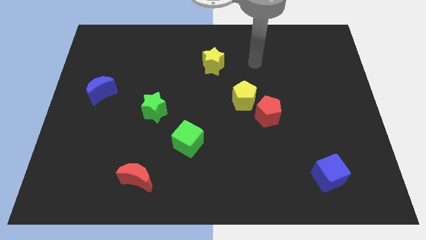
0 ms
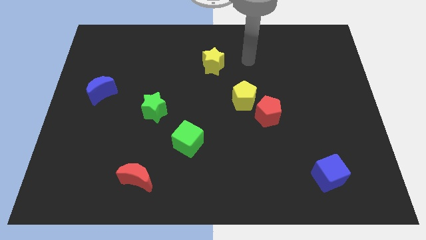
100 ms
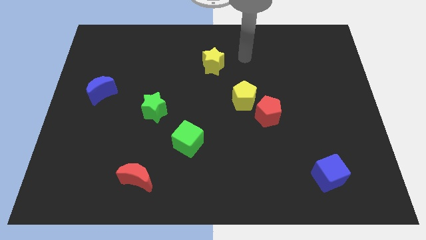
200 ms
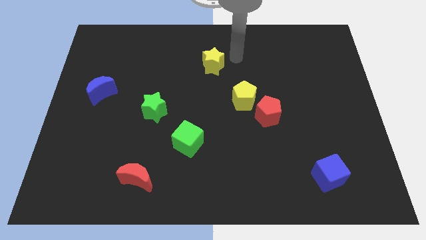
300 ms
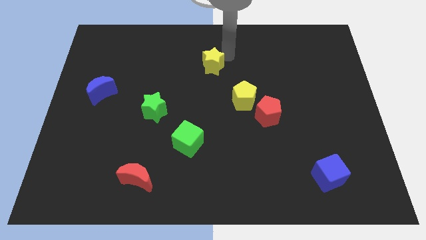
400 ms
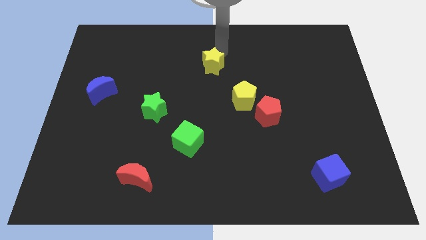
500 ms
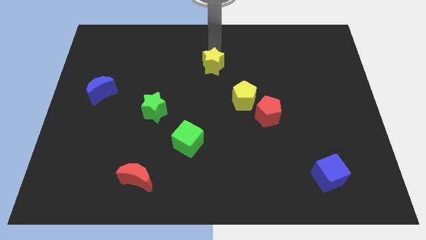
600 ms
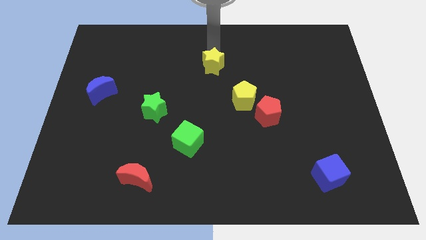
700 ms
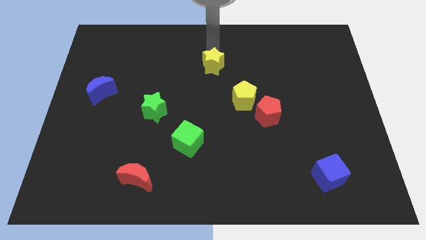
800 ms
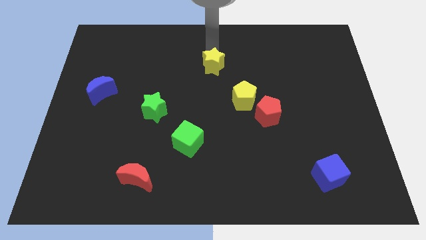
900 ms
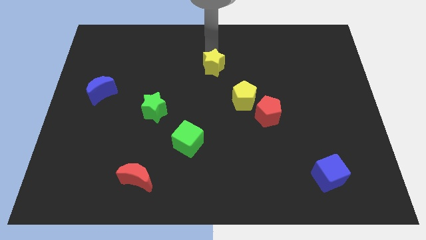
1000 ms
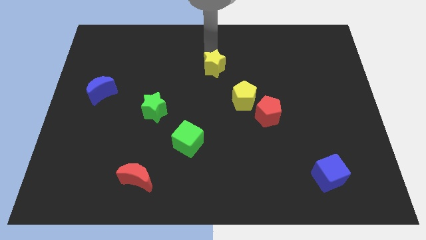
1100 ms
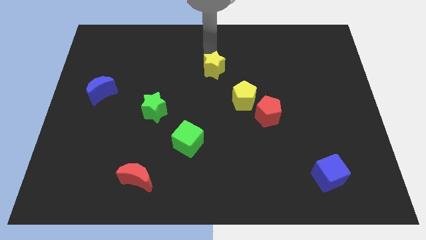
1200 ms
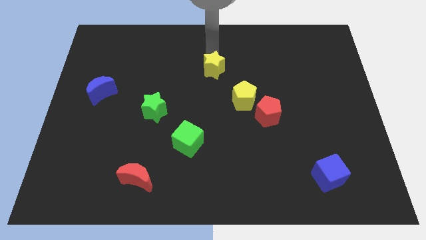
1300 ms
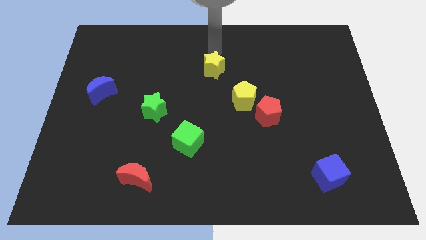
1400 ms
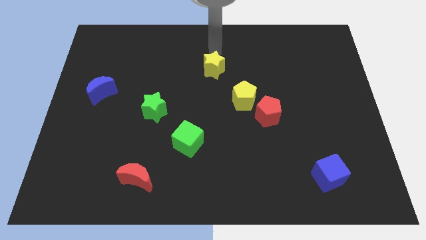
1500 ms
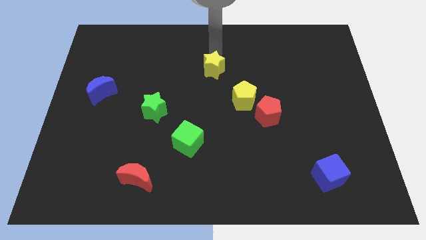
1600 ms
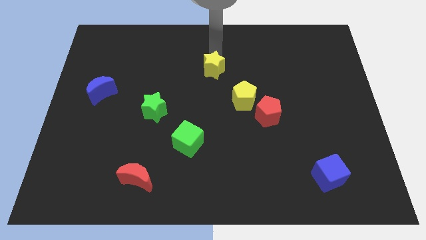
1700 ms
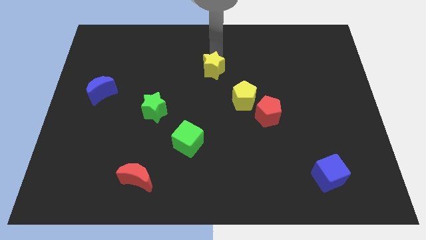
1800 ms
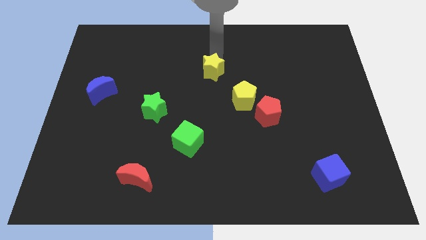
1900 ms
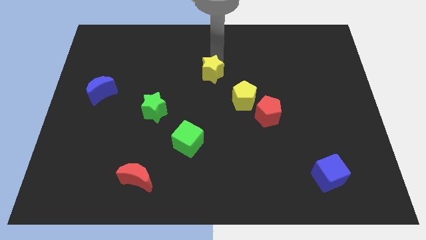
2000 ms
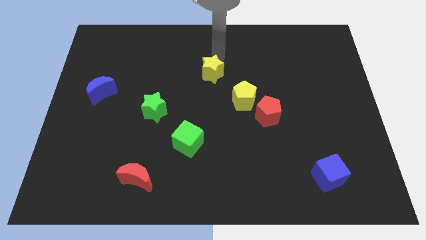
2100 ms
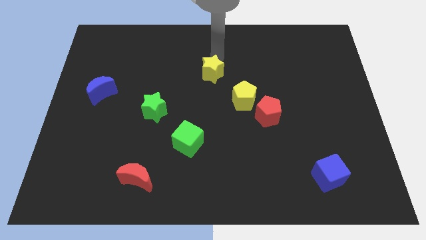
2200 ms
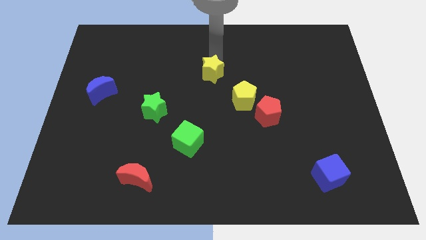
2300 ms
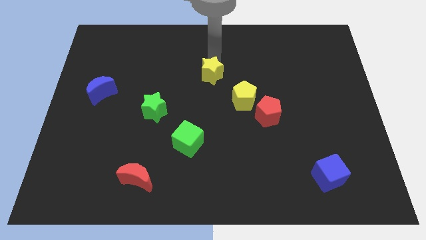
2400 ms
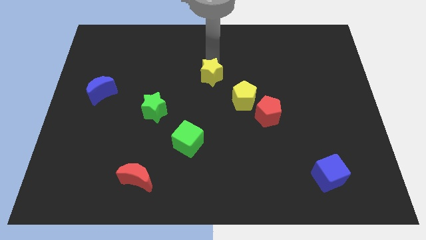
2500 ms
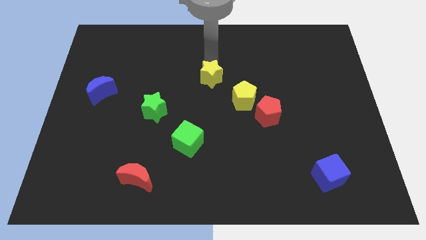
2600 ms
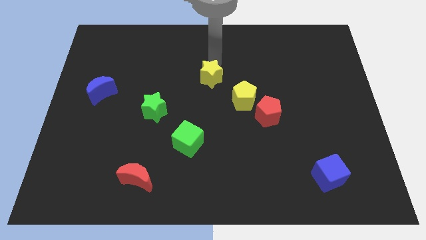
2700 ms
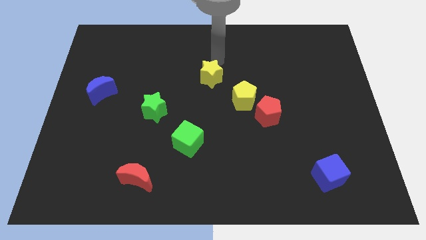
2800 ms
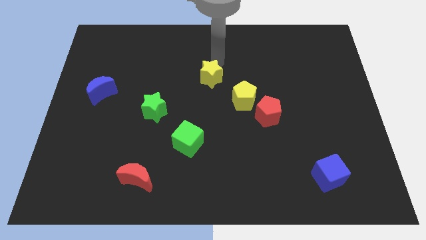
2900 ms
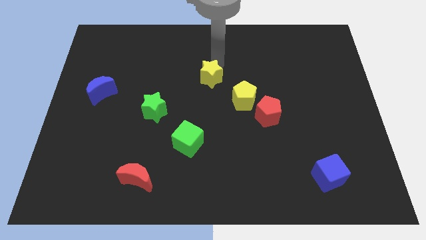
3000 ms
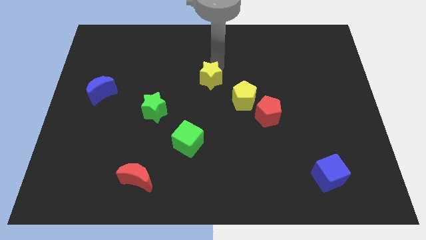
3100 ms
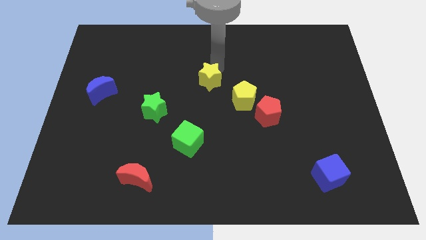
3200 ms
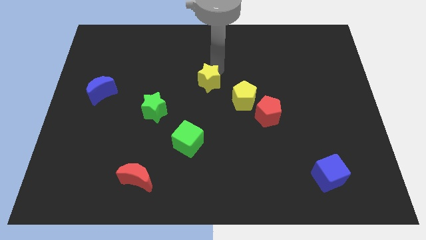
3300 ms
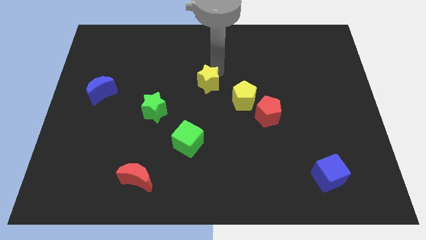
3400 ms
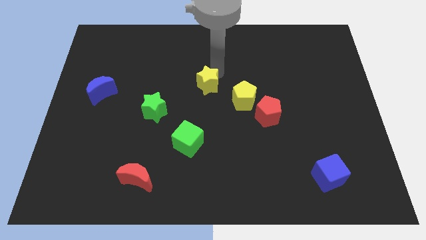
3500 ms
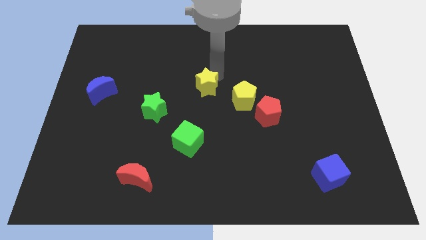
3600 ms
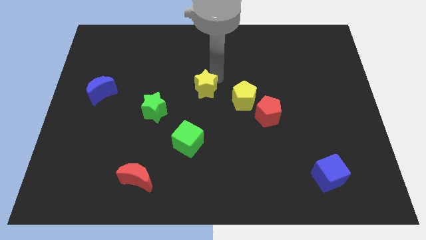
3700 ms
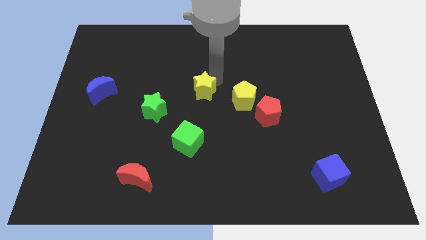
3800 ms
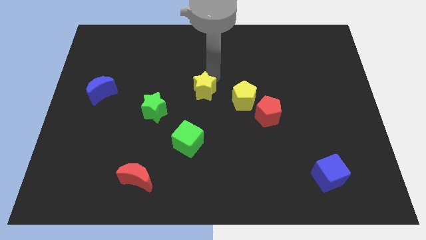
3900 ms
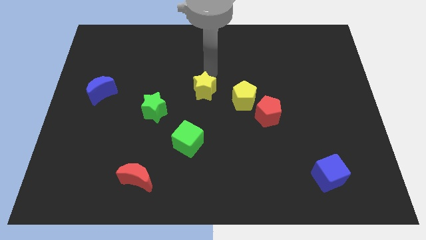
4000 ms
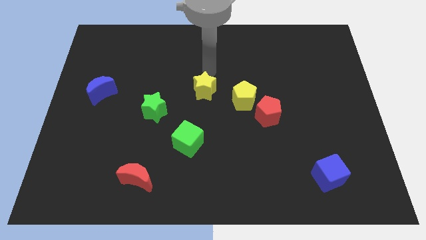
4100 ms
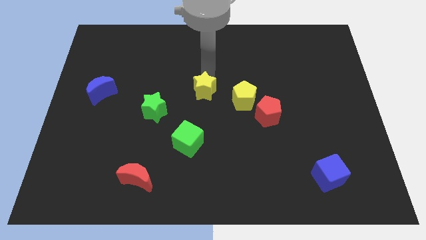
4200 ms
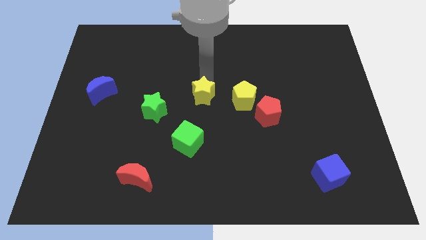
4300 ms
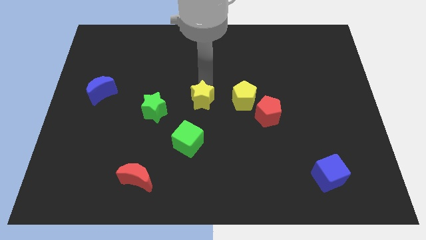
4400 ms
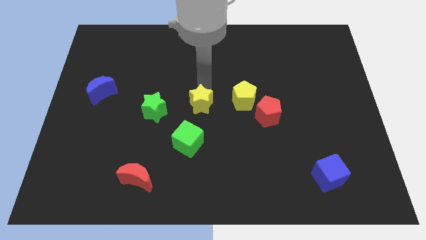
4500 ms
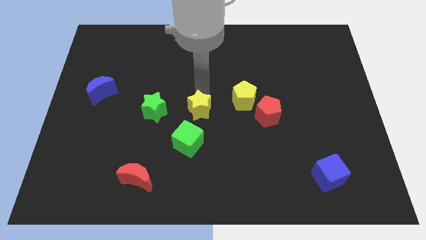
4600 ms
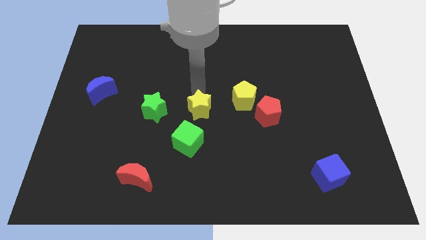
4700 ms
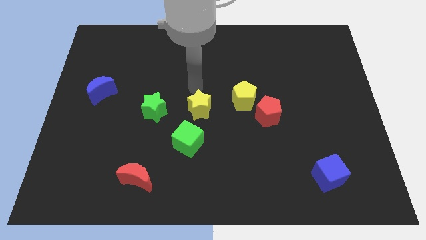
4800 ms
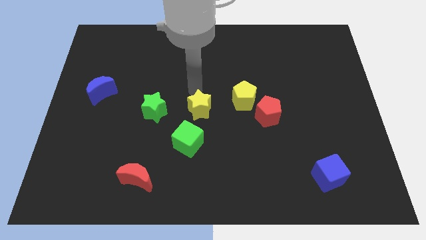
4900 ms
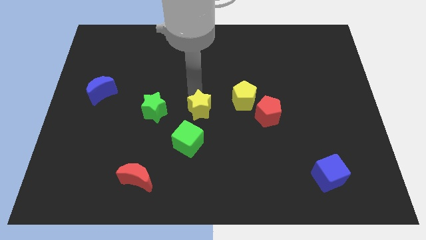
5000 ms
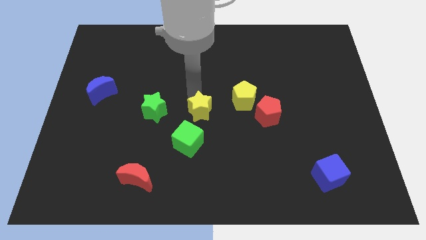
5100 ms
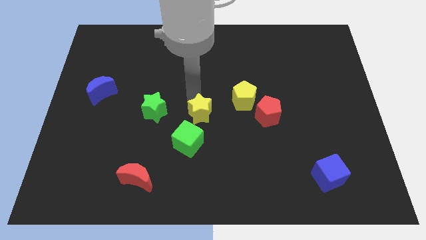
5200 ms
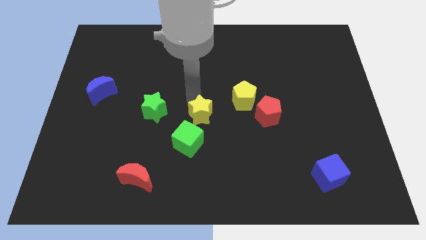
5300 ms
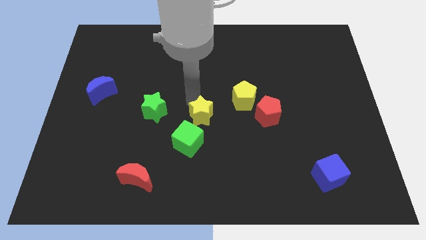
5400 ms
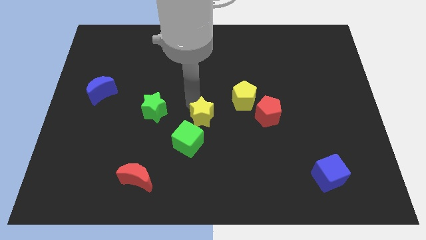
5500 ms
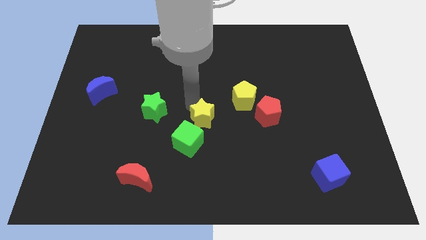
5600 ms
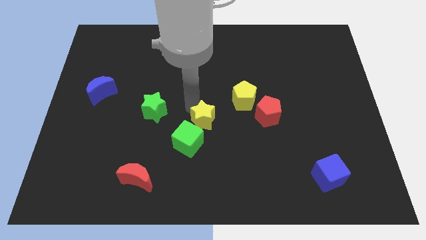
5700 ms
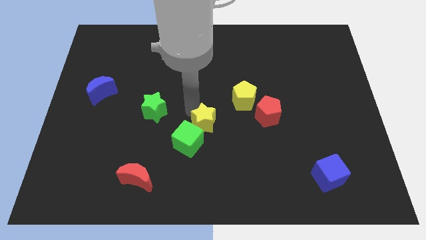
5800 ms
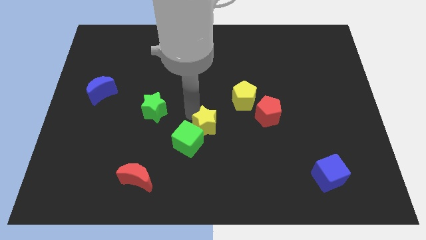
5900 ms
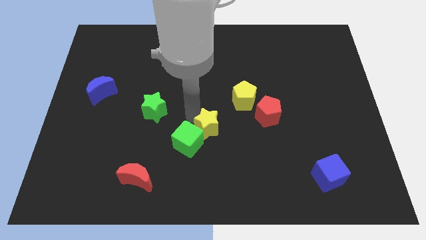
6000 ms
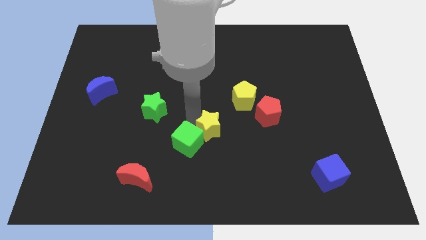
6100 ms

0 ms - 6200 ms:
move the yellow star down

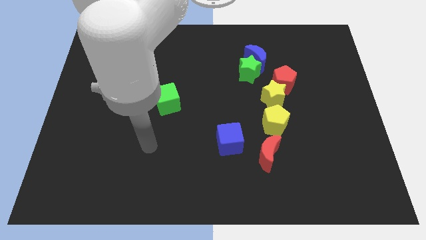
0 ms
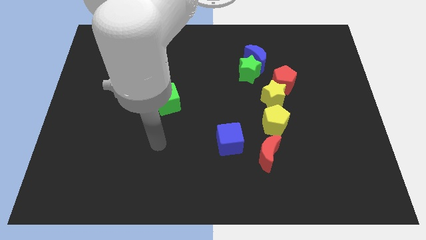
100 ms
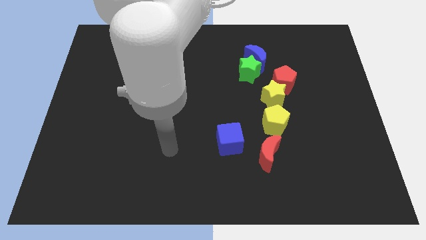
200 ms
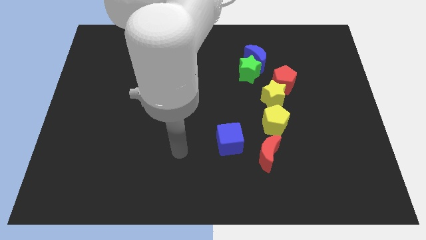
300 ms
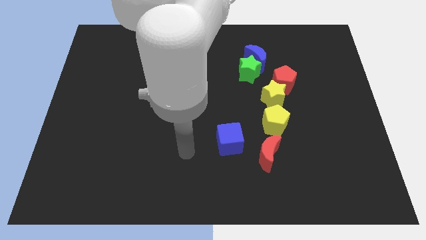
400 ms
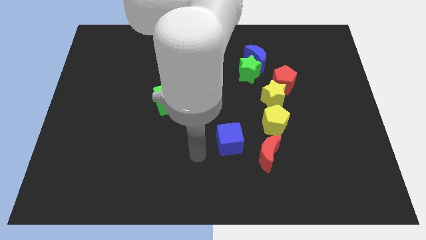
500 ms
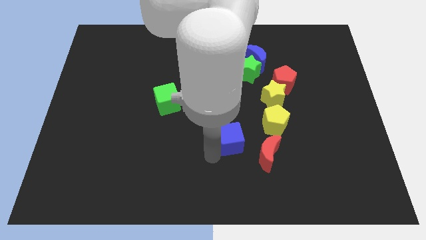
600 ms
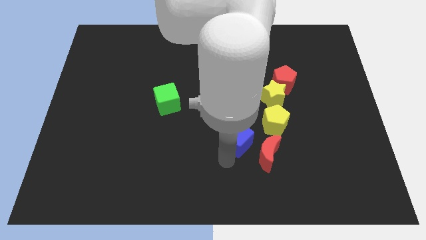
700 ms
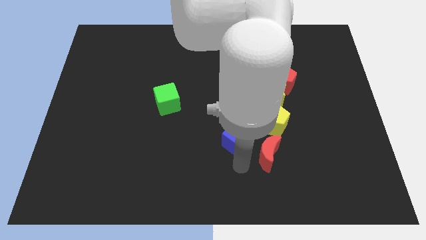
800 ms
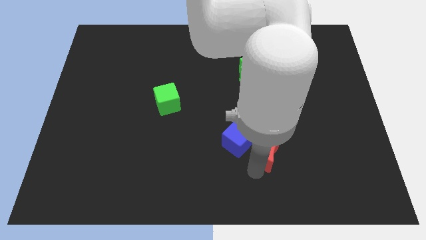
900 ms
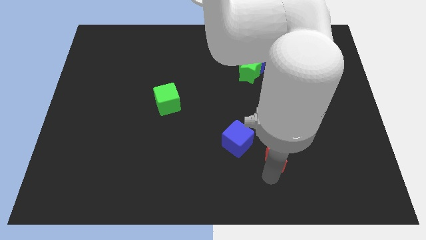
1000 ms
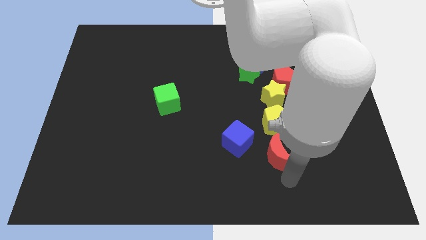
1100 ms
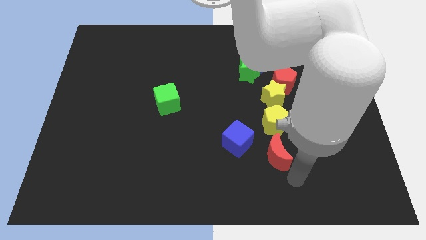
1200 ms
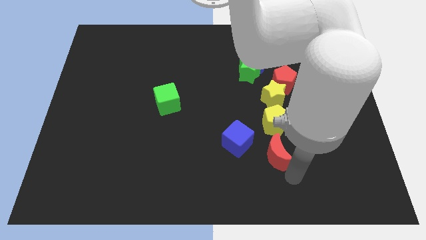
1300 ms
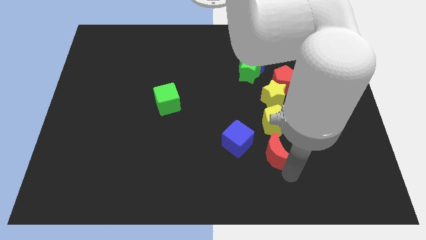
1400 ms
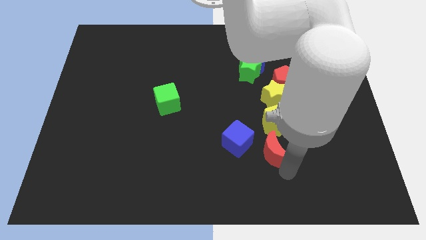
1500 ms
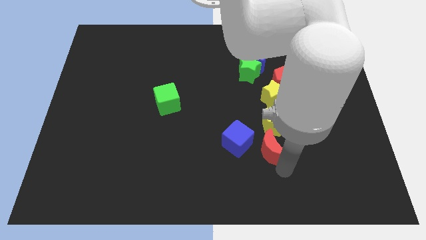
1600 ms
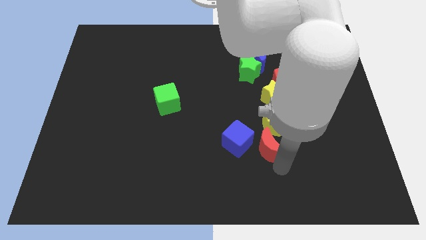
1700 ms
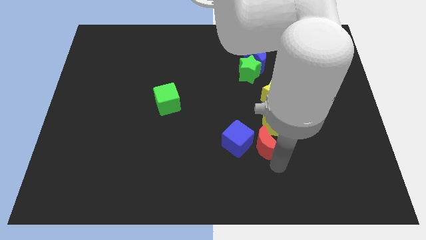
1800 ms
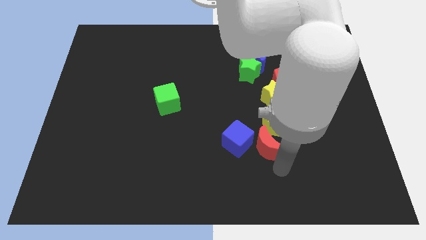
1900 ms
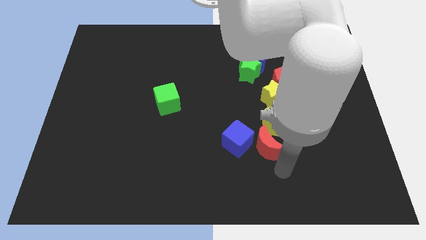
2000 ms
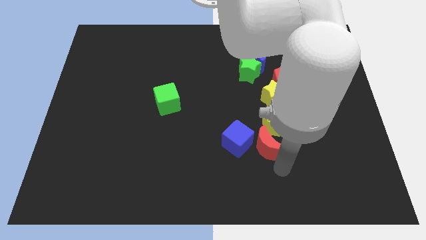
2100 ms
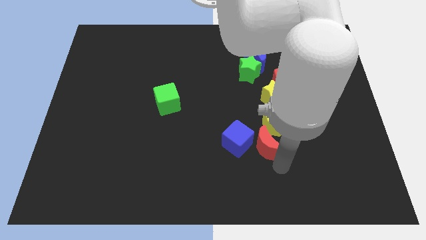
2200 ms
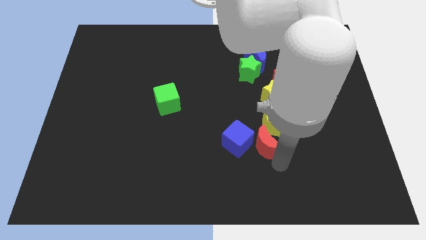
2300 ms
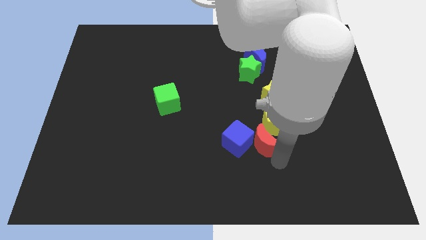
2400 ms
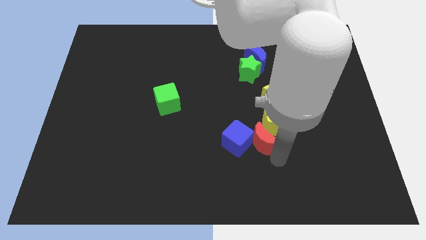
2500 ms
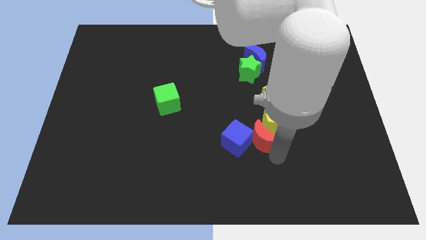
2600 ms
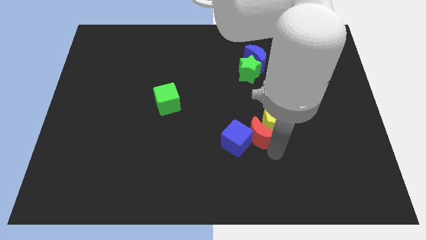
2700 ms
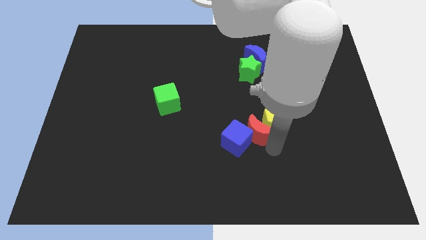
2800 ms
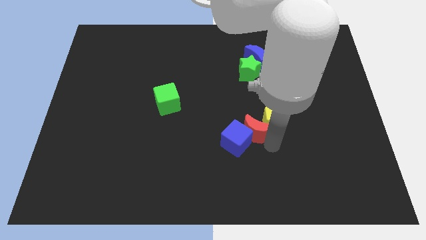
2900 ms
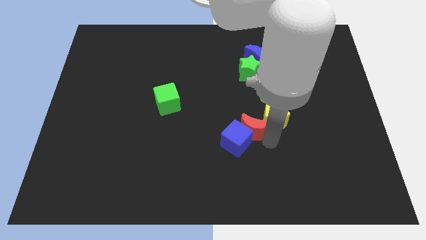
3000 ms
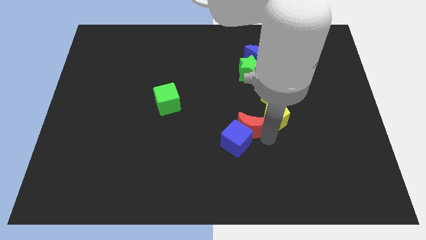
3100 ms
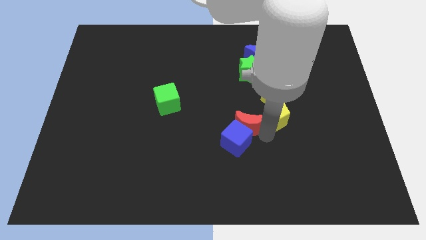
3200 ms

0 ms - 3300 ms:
push the red moon upwards a little
